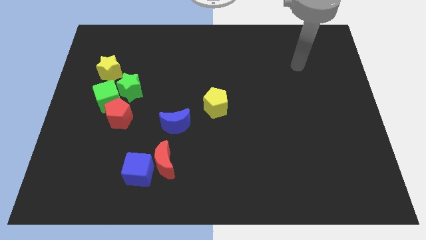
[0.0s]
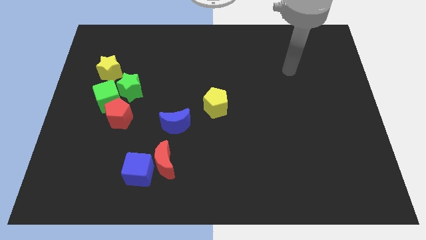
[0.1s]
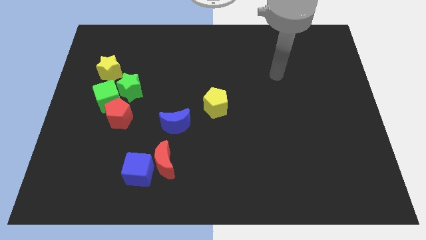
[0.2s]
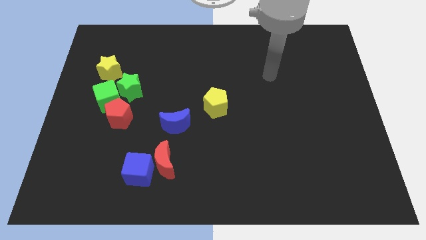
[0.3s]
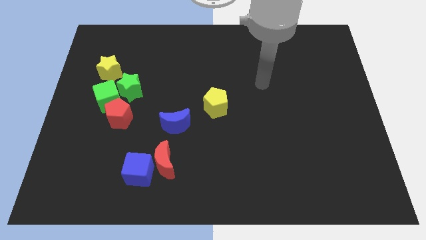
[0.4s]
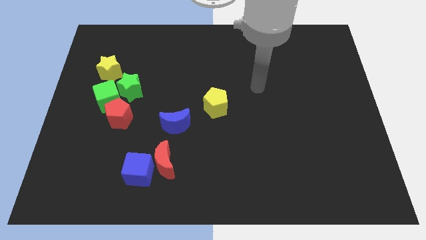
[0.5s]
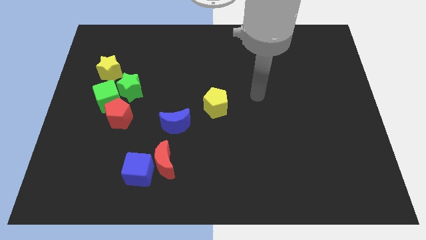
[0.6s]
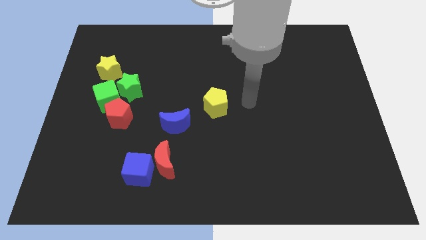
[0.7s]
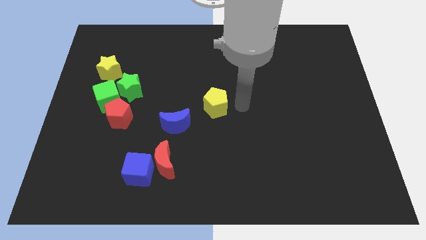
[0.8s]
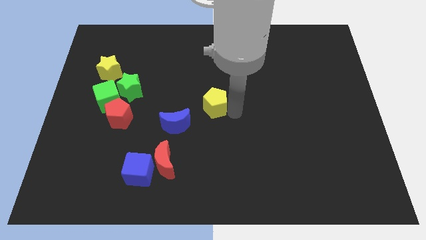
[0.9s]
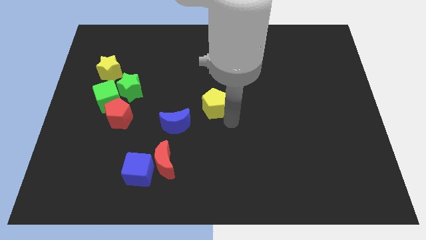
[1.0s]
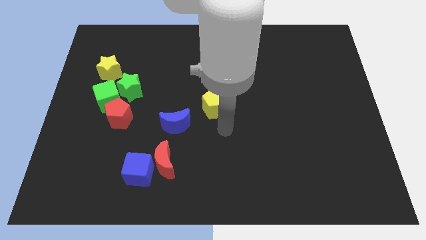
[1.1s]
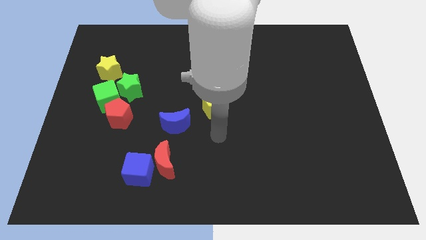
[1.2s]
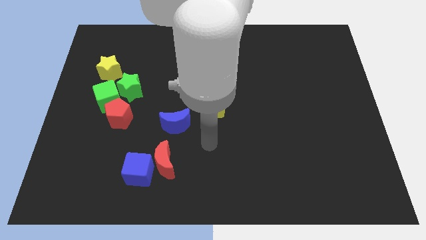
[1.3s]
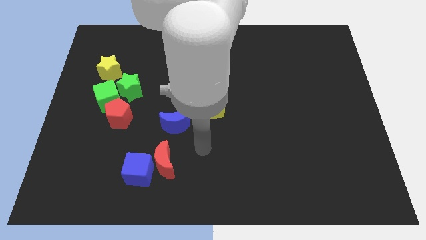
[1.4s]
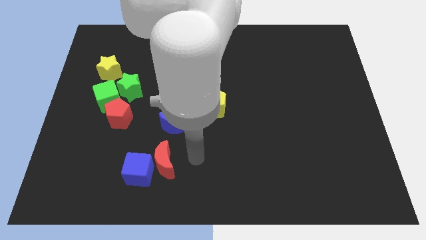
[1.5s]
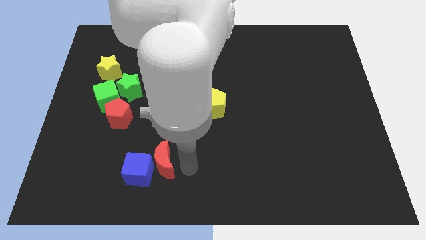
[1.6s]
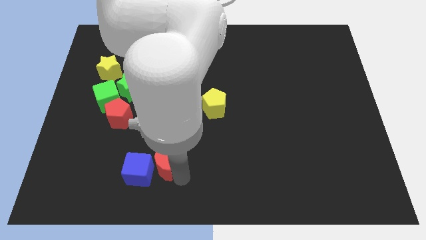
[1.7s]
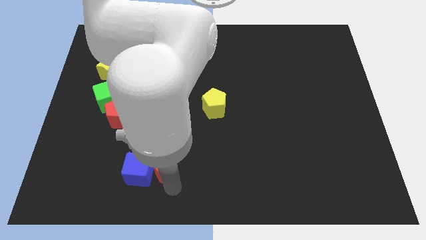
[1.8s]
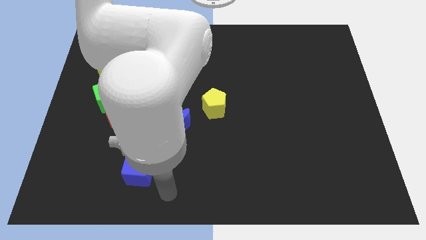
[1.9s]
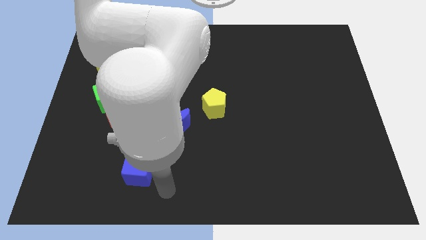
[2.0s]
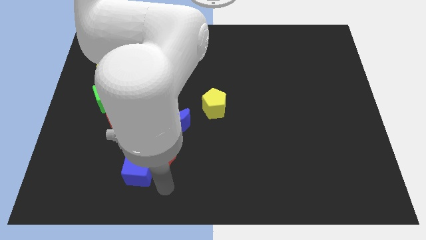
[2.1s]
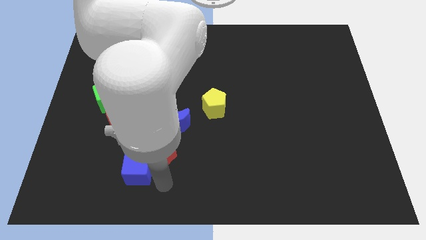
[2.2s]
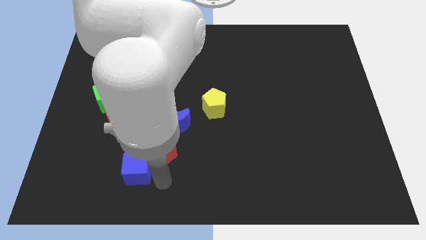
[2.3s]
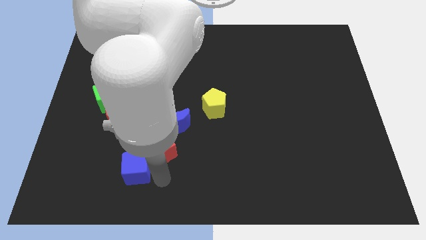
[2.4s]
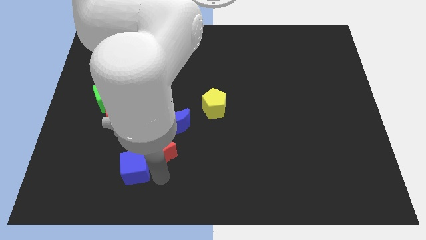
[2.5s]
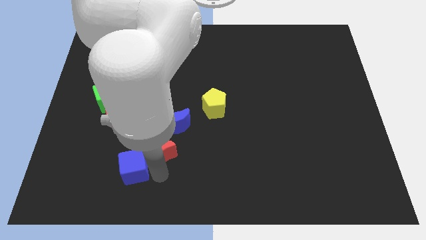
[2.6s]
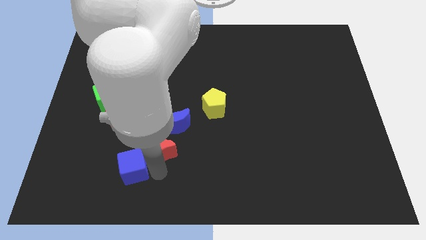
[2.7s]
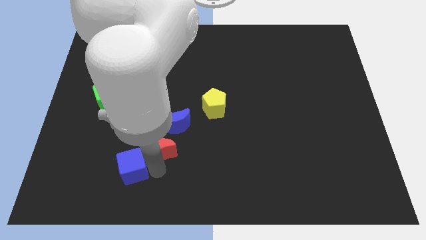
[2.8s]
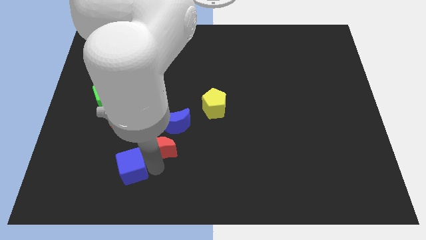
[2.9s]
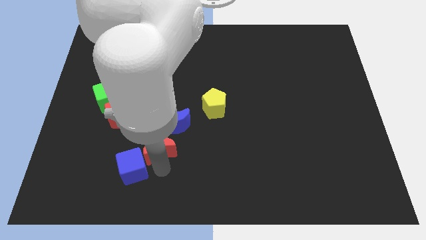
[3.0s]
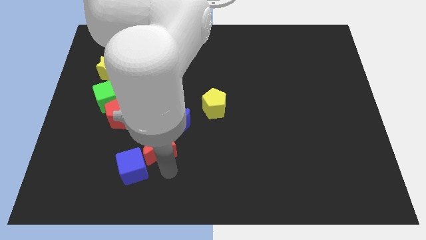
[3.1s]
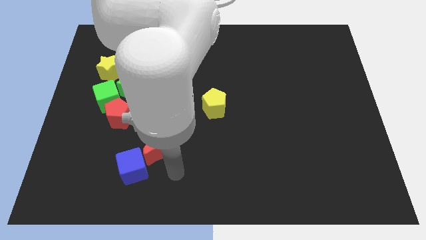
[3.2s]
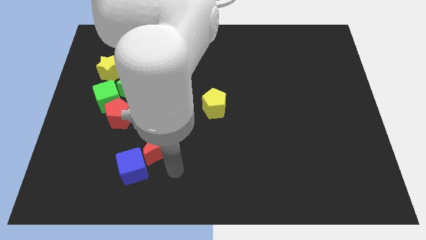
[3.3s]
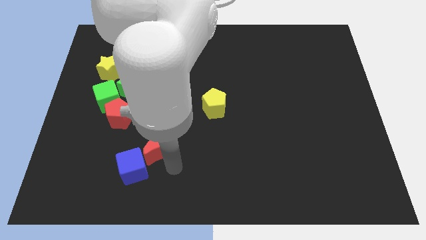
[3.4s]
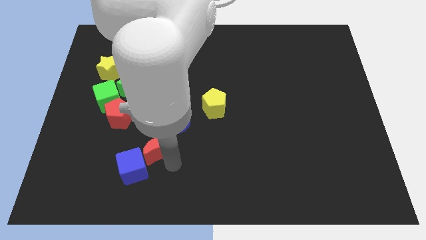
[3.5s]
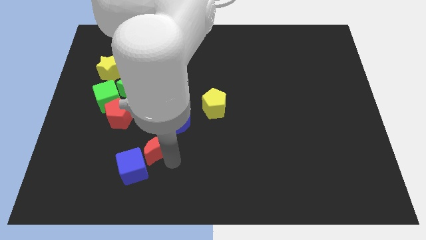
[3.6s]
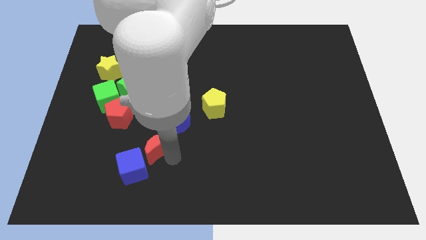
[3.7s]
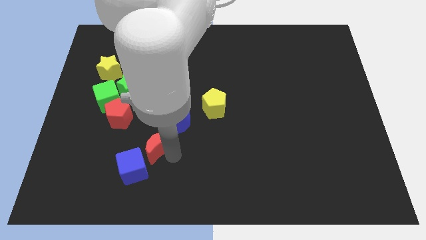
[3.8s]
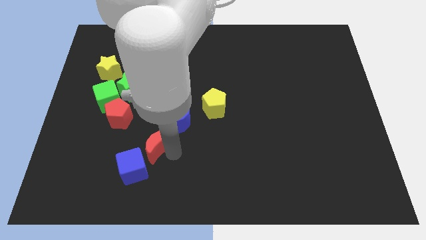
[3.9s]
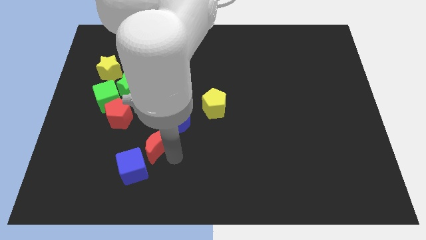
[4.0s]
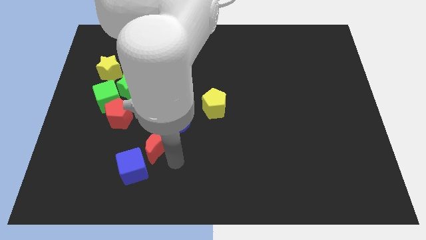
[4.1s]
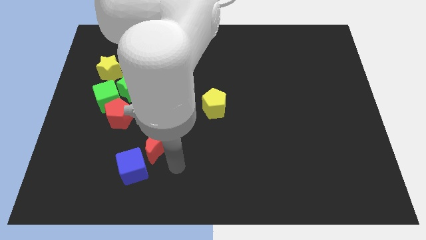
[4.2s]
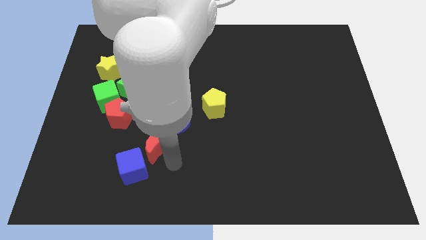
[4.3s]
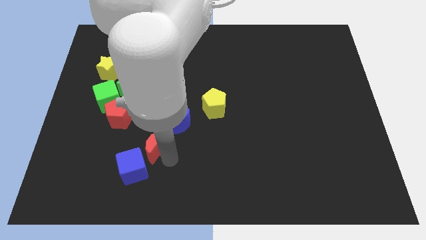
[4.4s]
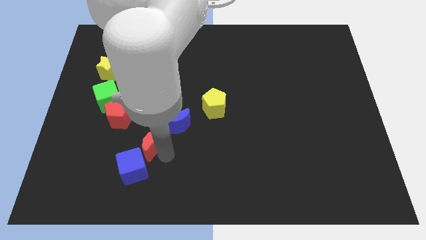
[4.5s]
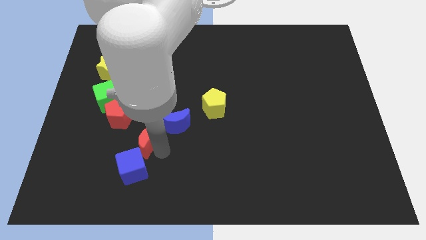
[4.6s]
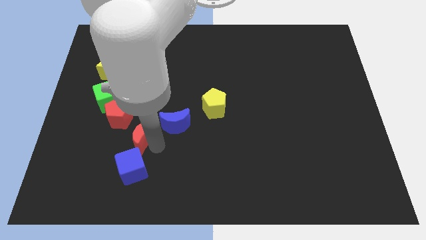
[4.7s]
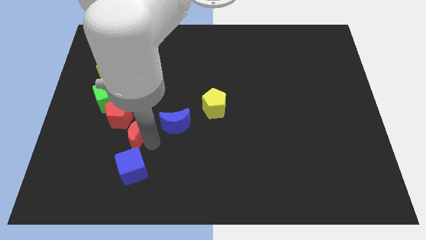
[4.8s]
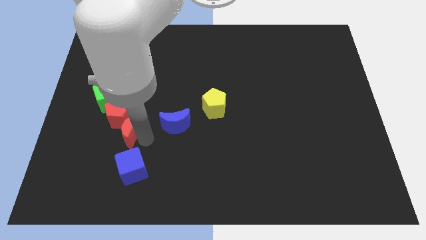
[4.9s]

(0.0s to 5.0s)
move the red moon towards the red pentagon

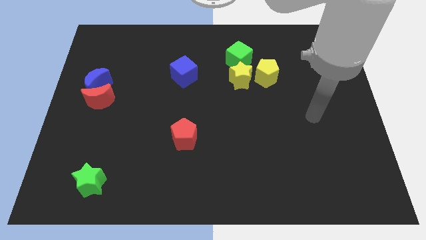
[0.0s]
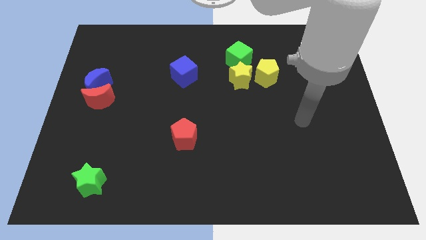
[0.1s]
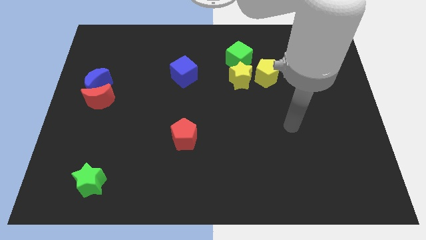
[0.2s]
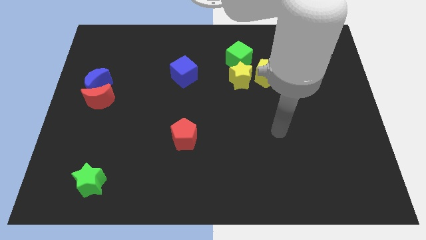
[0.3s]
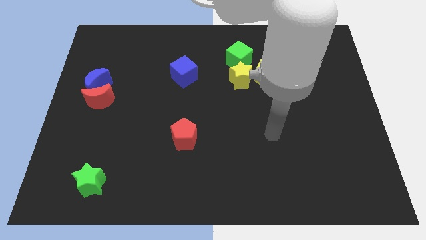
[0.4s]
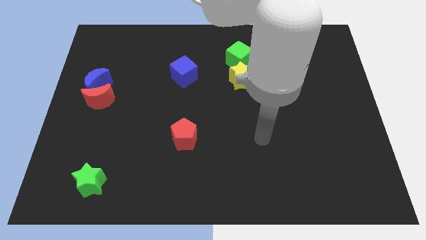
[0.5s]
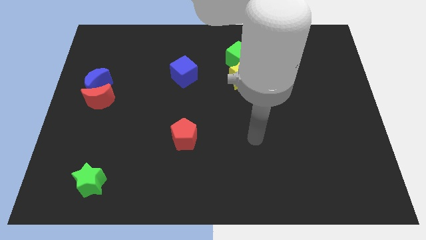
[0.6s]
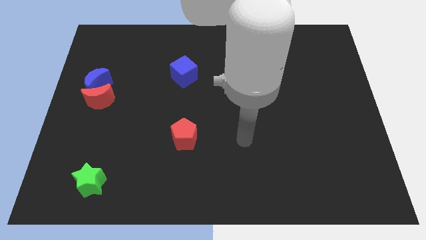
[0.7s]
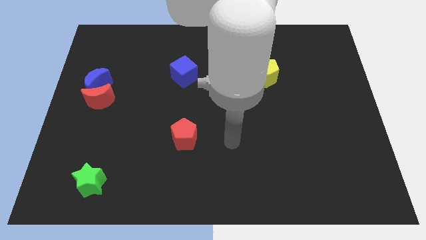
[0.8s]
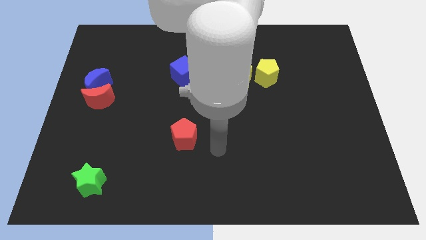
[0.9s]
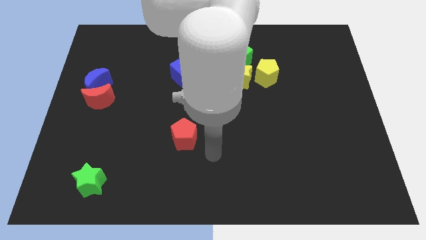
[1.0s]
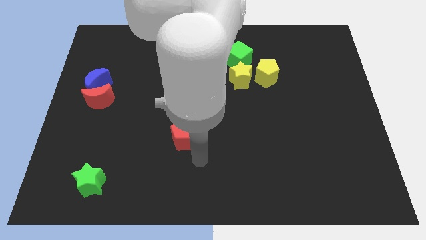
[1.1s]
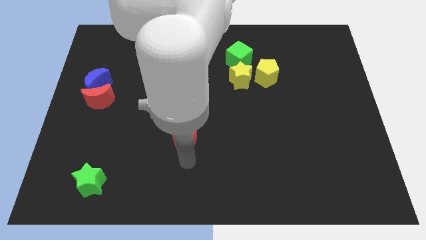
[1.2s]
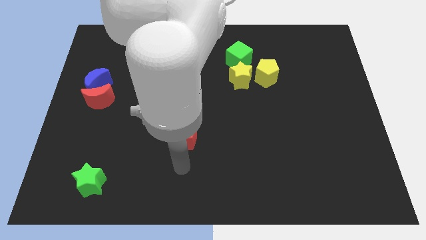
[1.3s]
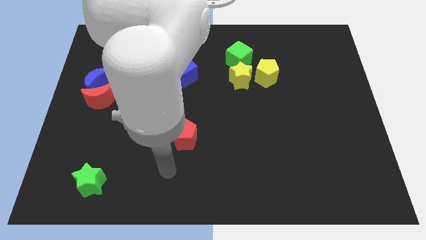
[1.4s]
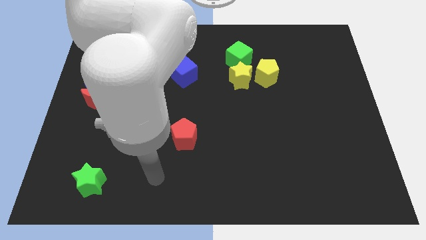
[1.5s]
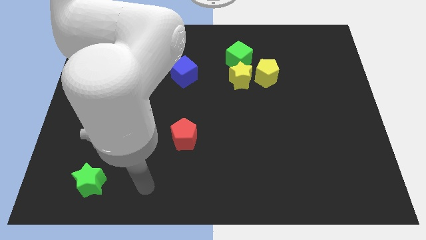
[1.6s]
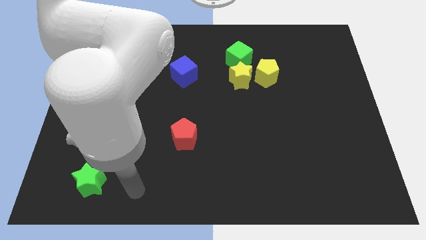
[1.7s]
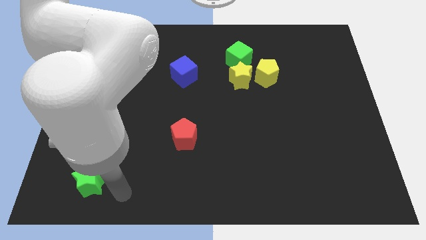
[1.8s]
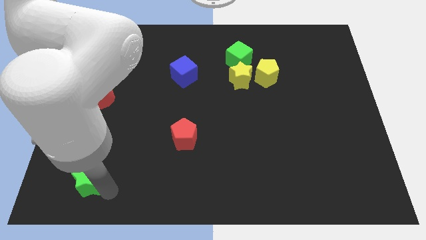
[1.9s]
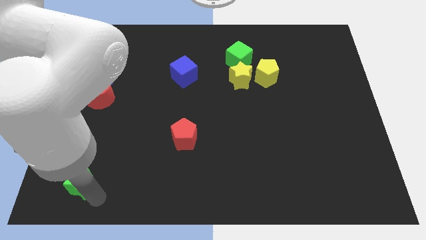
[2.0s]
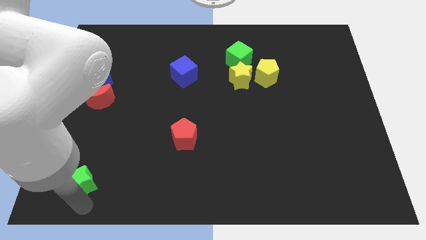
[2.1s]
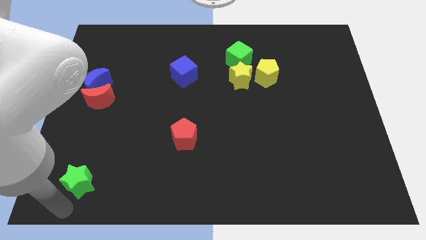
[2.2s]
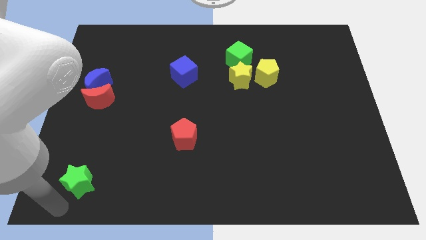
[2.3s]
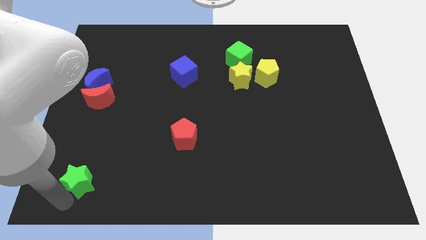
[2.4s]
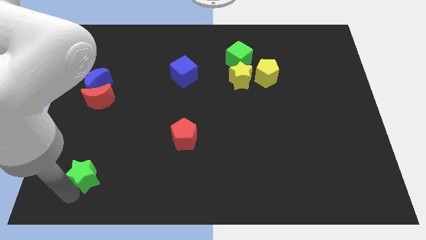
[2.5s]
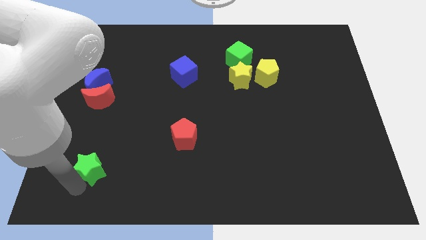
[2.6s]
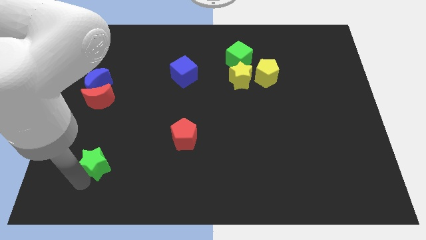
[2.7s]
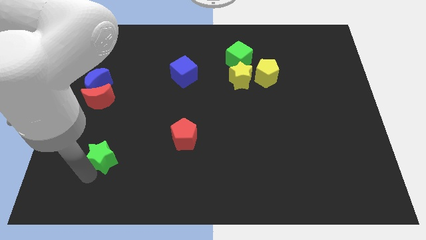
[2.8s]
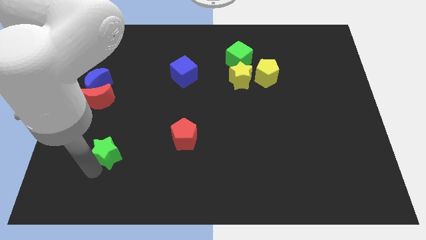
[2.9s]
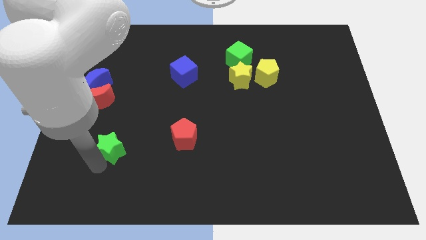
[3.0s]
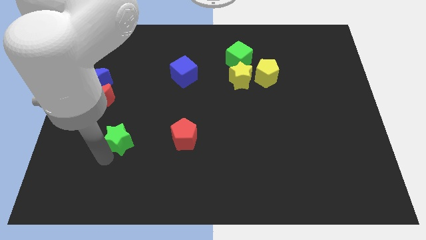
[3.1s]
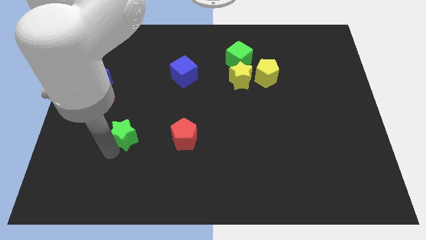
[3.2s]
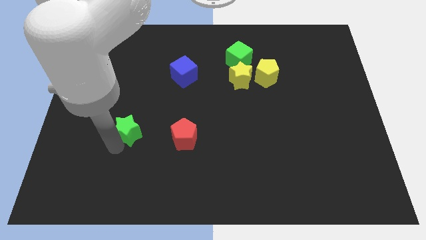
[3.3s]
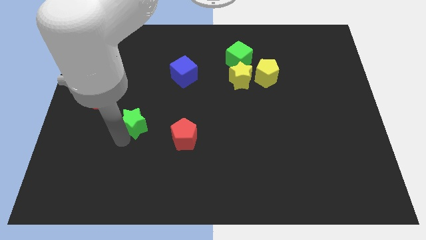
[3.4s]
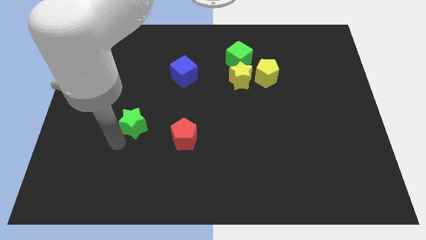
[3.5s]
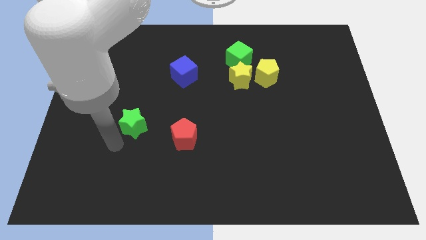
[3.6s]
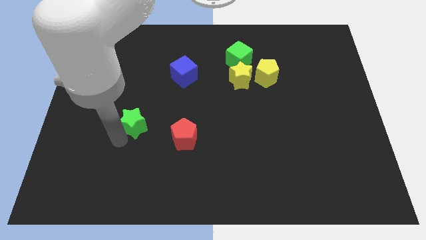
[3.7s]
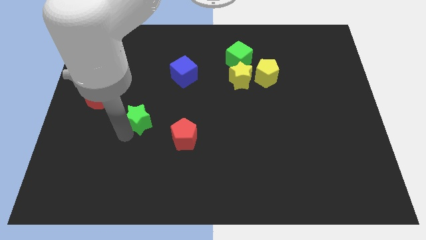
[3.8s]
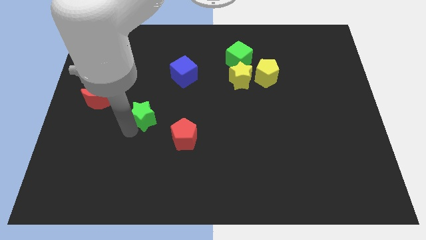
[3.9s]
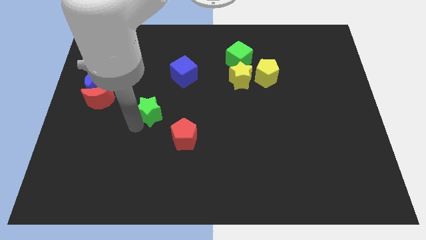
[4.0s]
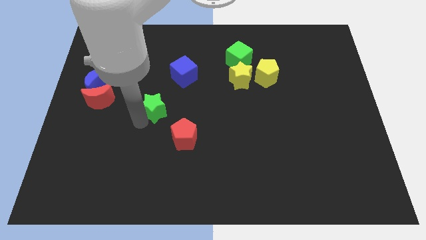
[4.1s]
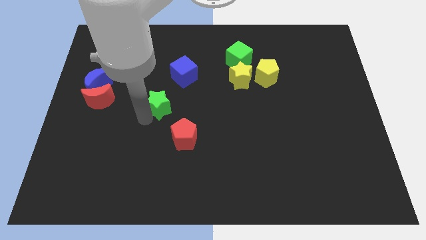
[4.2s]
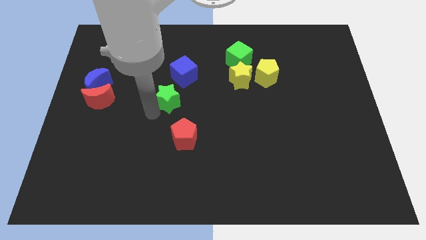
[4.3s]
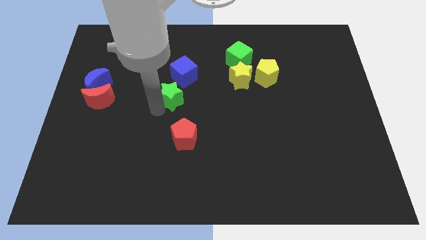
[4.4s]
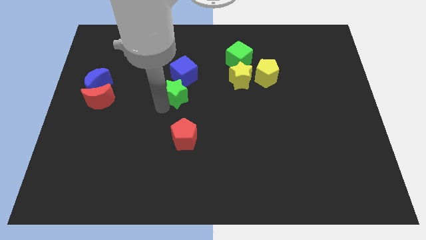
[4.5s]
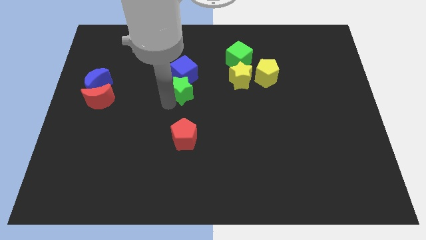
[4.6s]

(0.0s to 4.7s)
push the green star next to the blue cube
